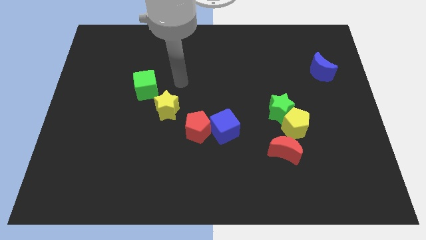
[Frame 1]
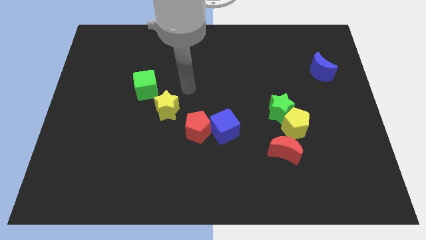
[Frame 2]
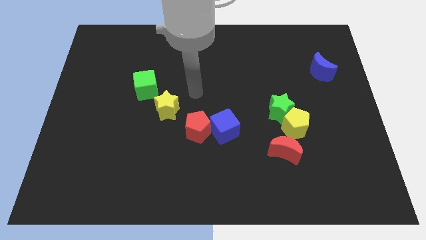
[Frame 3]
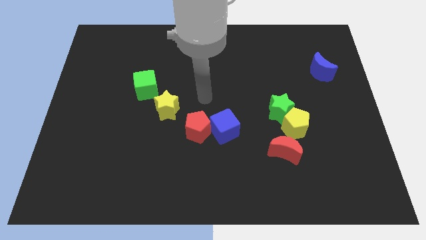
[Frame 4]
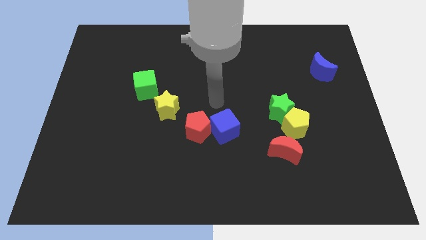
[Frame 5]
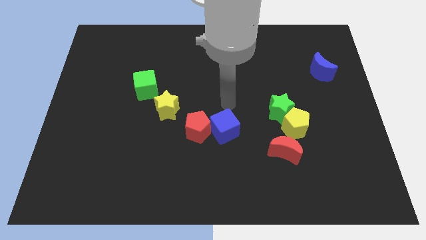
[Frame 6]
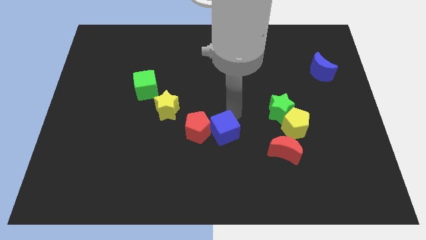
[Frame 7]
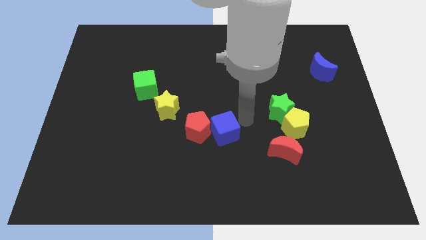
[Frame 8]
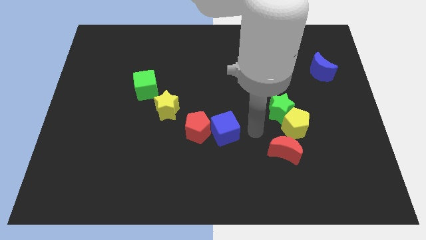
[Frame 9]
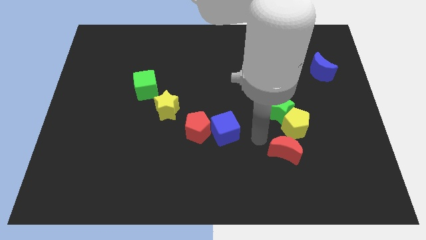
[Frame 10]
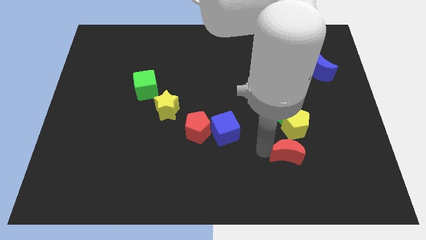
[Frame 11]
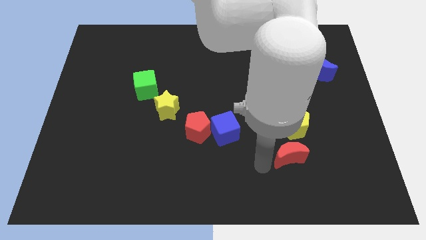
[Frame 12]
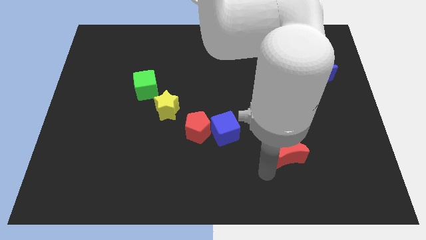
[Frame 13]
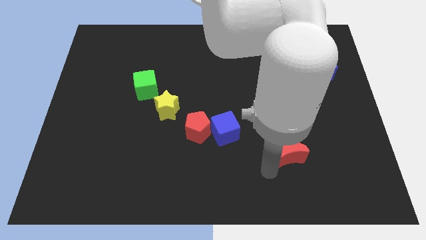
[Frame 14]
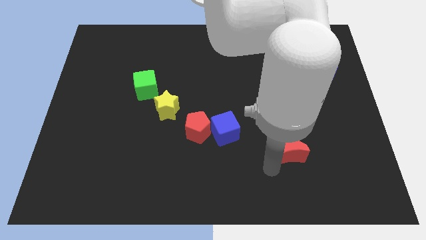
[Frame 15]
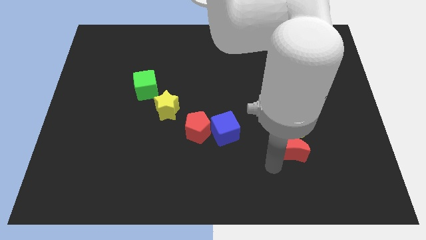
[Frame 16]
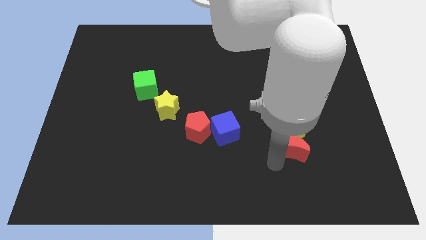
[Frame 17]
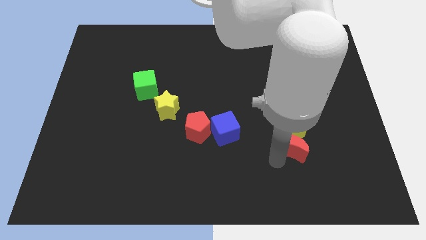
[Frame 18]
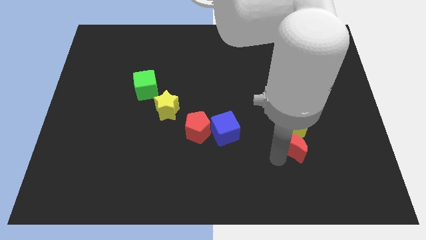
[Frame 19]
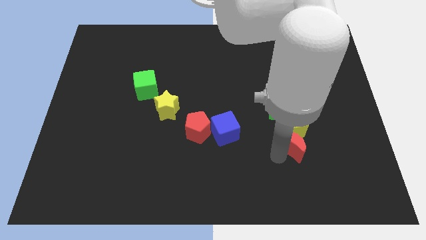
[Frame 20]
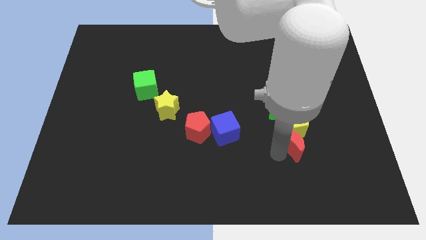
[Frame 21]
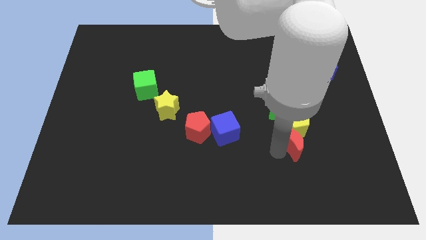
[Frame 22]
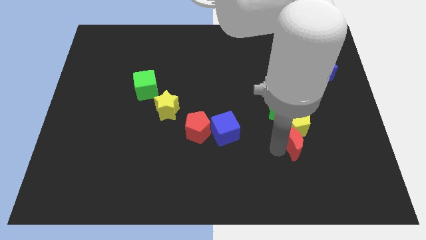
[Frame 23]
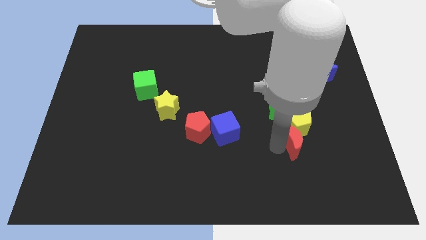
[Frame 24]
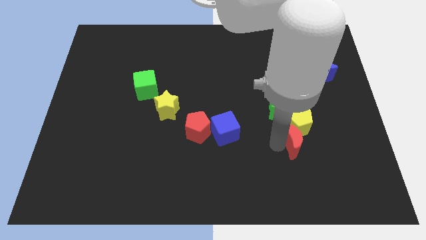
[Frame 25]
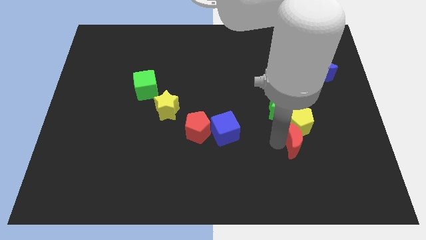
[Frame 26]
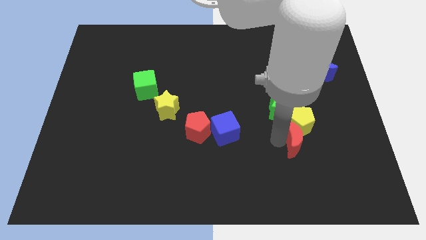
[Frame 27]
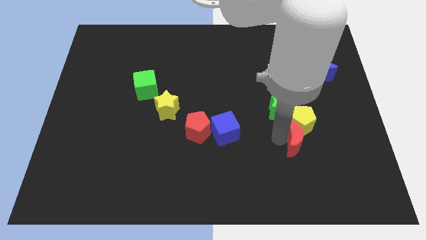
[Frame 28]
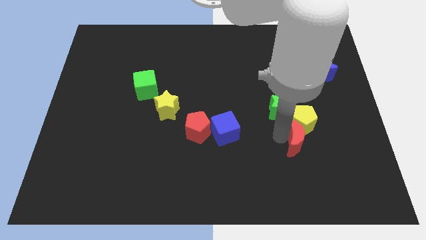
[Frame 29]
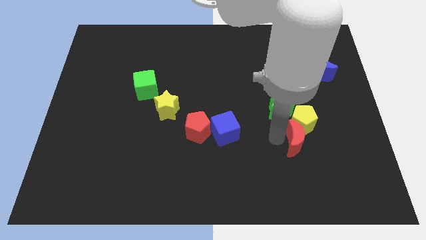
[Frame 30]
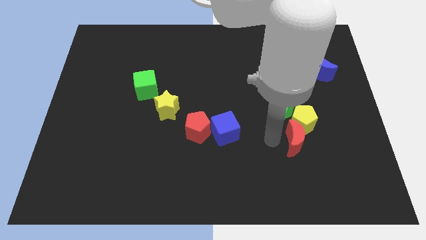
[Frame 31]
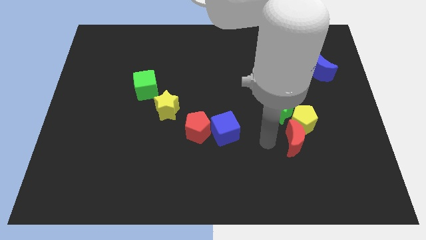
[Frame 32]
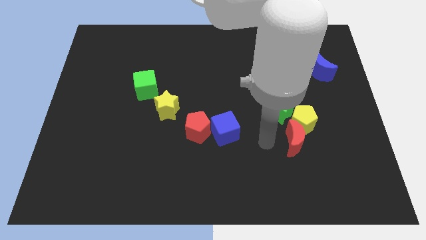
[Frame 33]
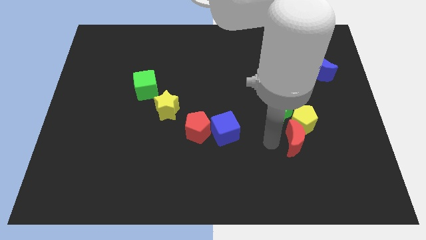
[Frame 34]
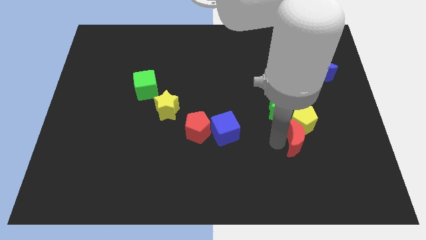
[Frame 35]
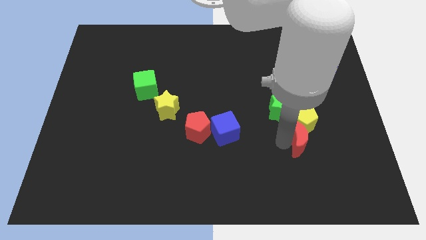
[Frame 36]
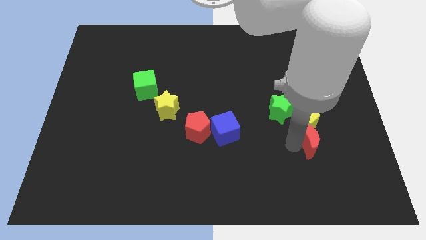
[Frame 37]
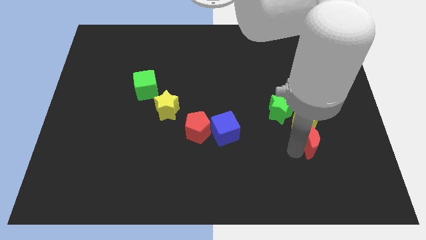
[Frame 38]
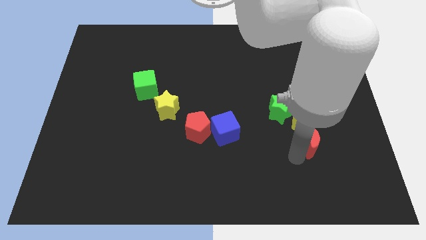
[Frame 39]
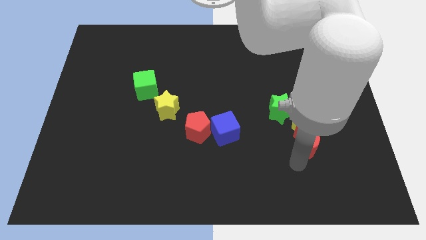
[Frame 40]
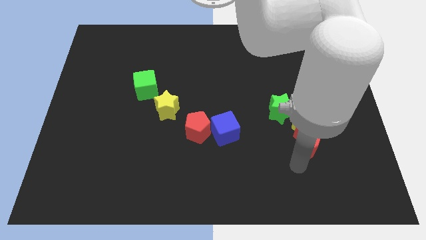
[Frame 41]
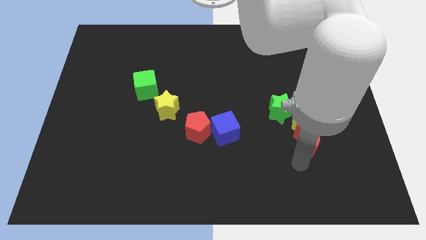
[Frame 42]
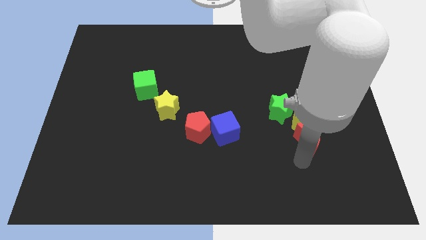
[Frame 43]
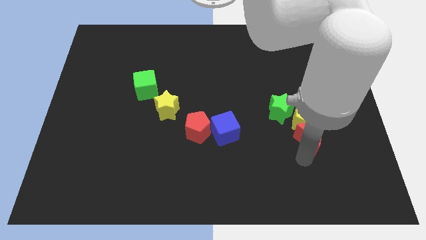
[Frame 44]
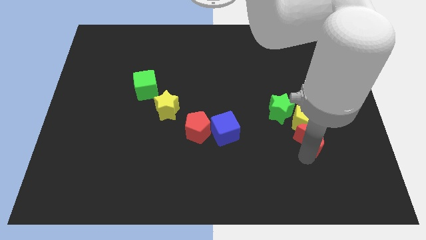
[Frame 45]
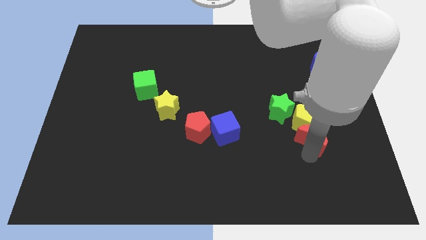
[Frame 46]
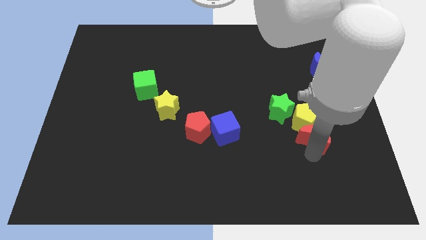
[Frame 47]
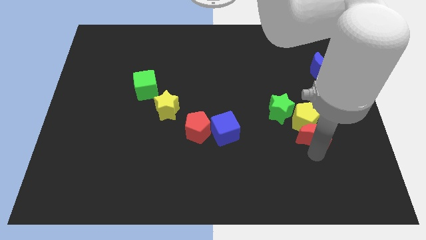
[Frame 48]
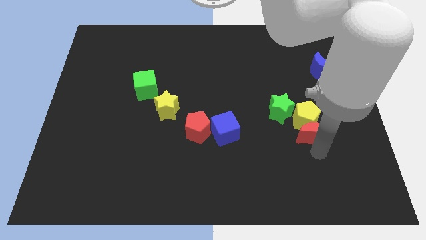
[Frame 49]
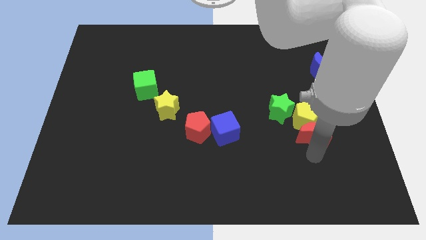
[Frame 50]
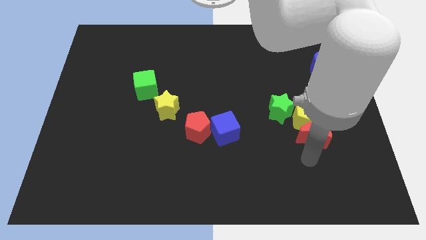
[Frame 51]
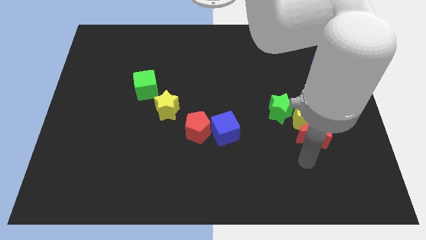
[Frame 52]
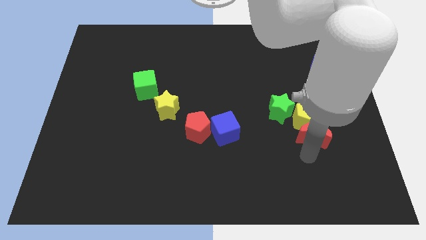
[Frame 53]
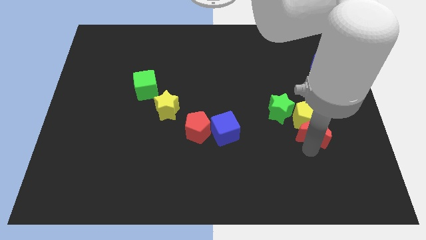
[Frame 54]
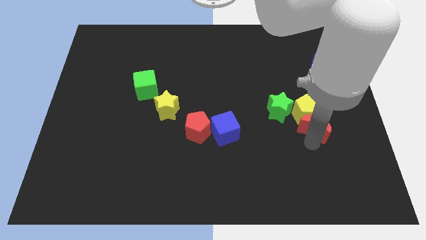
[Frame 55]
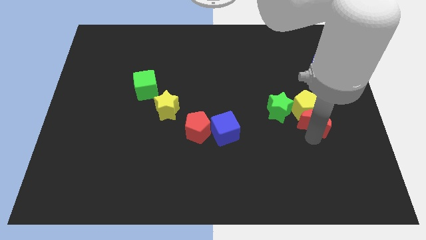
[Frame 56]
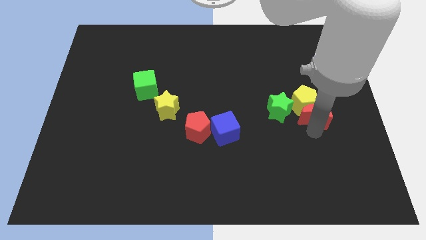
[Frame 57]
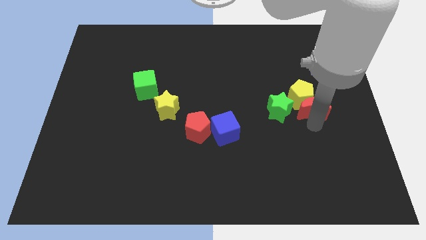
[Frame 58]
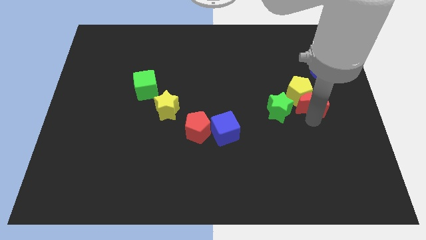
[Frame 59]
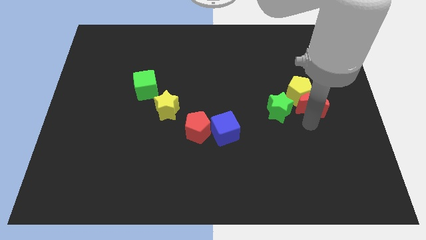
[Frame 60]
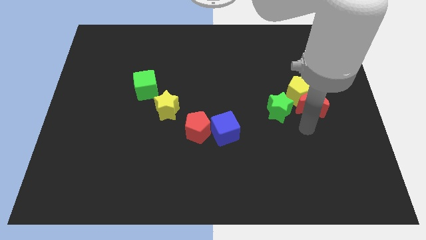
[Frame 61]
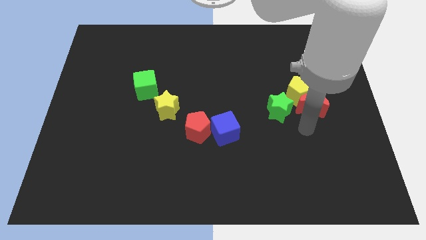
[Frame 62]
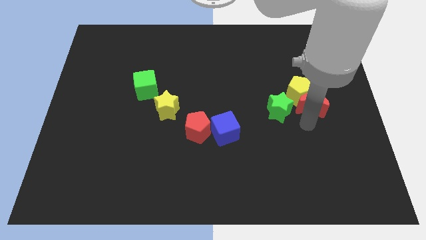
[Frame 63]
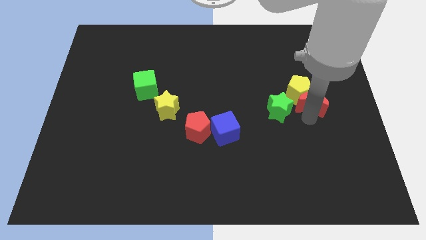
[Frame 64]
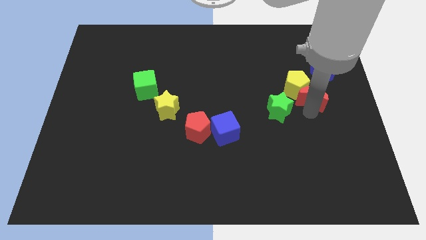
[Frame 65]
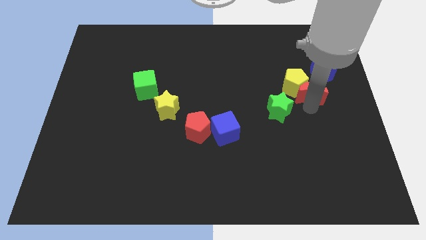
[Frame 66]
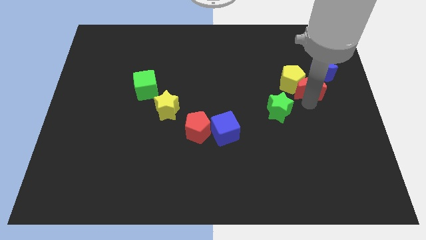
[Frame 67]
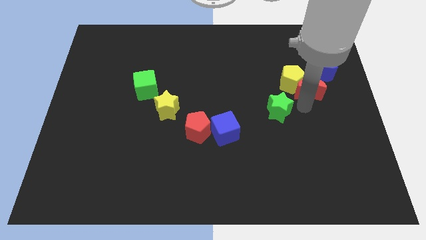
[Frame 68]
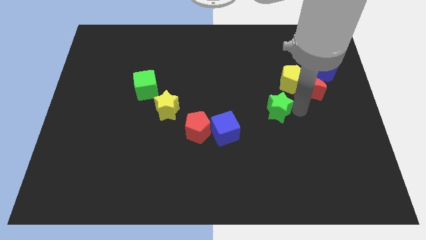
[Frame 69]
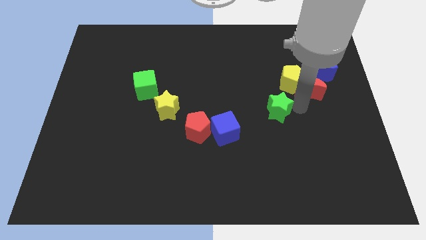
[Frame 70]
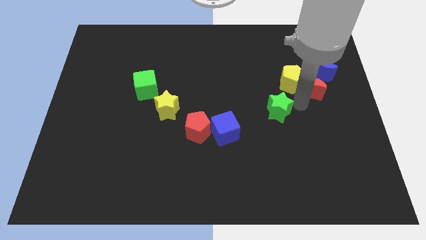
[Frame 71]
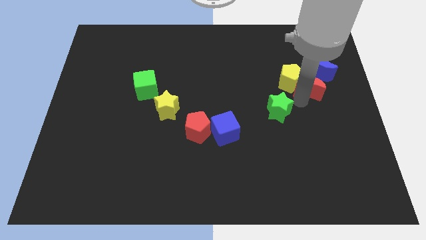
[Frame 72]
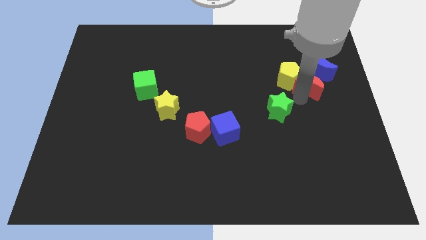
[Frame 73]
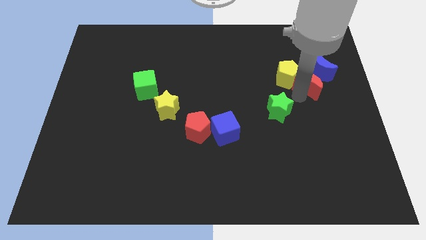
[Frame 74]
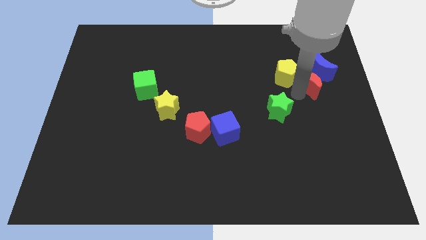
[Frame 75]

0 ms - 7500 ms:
move the red moon close to the blue moon
